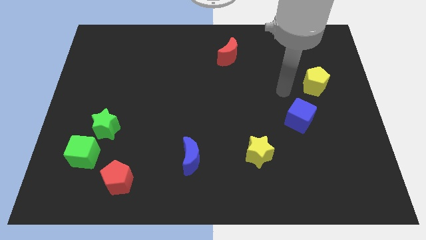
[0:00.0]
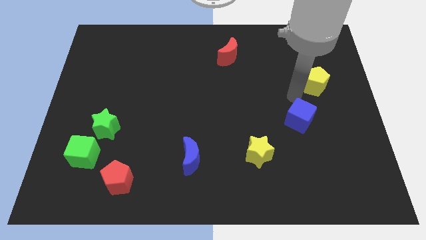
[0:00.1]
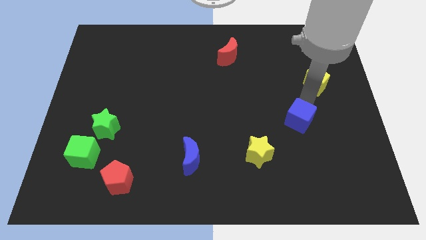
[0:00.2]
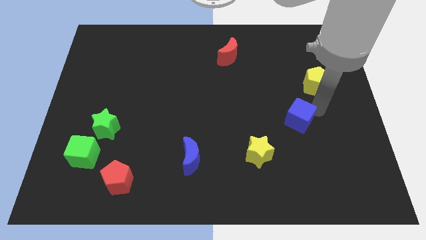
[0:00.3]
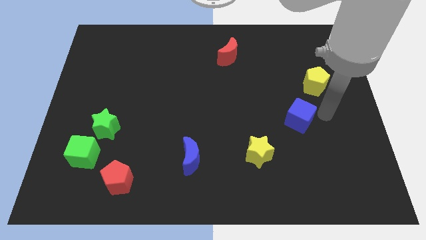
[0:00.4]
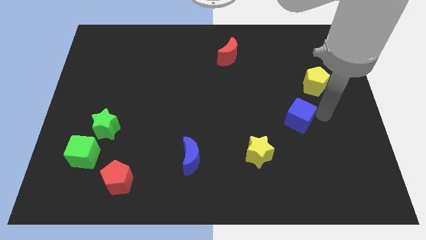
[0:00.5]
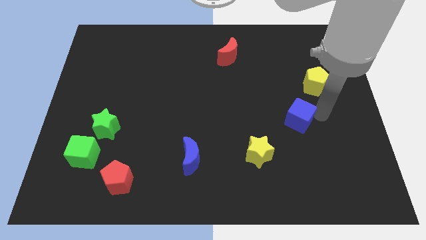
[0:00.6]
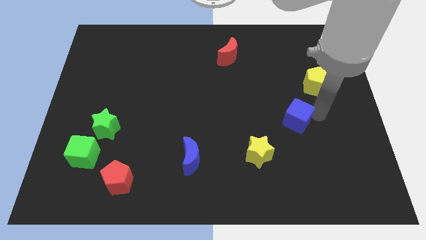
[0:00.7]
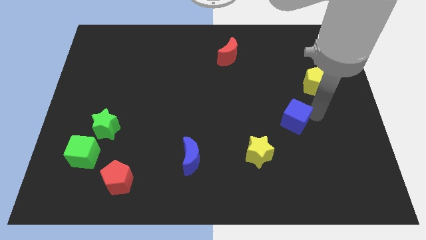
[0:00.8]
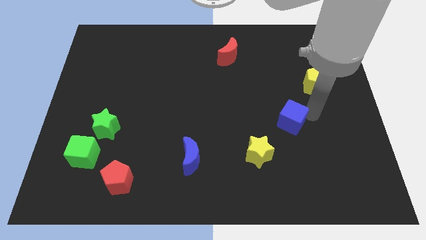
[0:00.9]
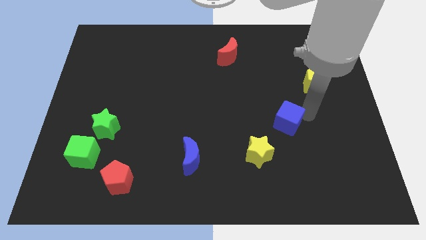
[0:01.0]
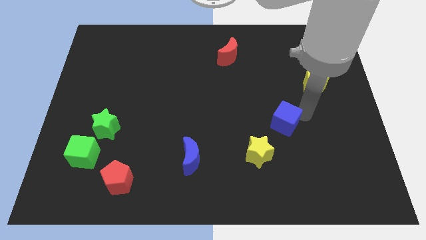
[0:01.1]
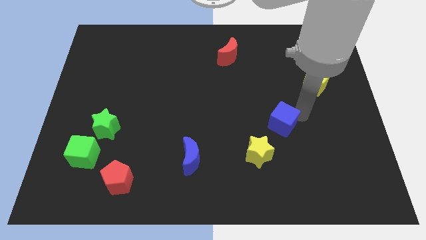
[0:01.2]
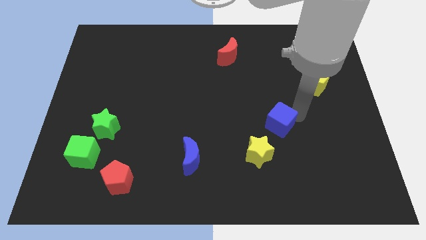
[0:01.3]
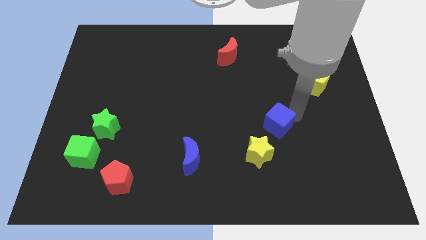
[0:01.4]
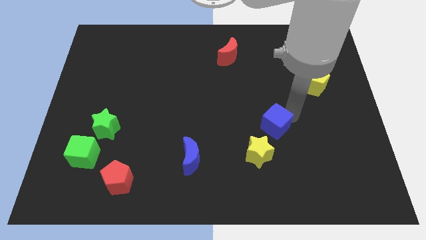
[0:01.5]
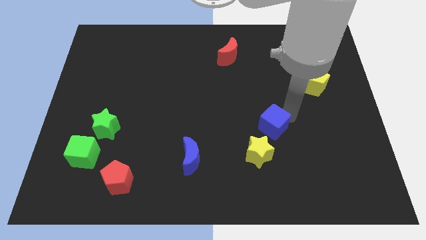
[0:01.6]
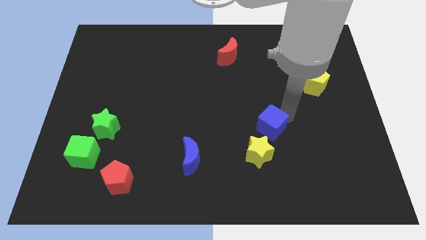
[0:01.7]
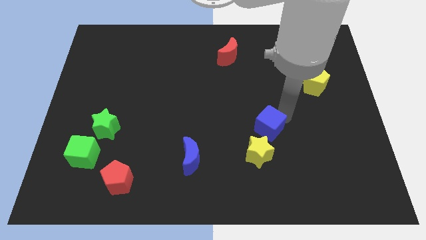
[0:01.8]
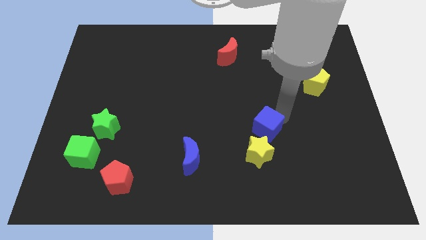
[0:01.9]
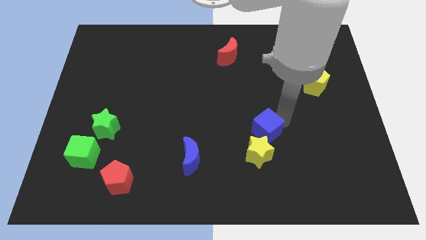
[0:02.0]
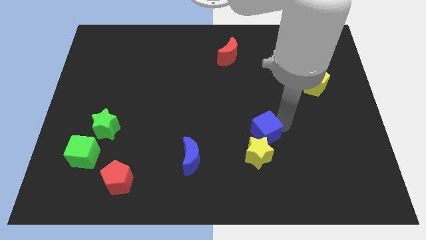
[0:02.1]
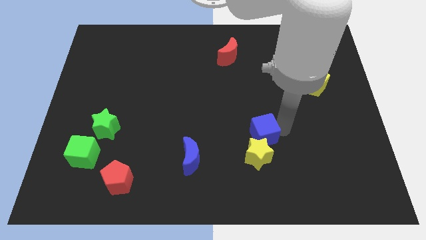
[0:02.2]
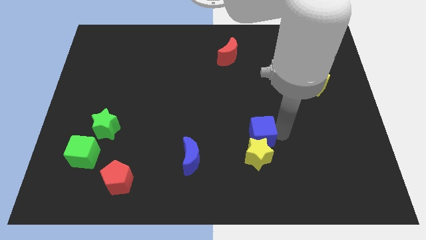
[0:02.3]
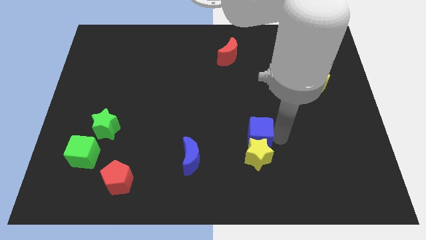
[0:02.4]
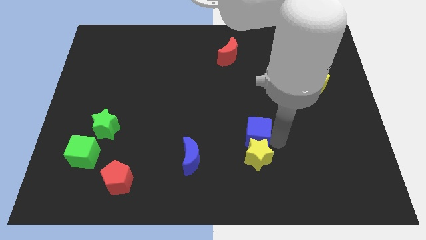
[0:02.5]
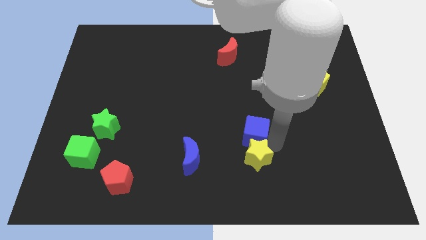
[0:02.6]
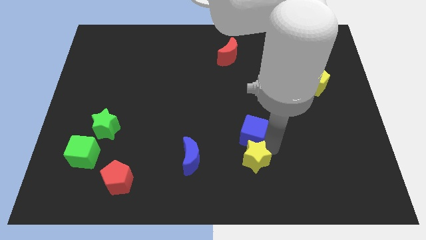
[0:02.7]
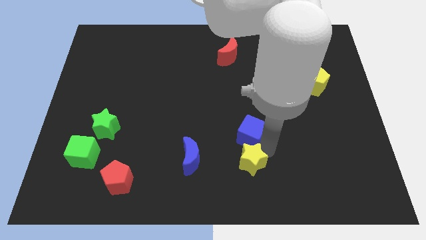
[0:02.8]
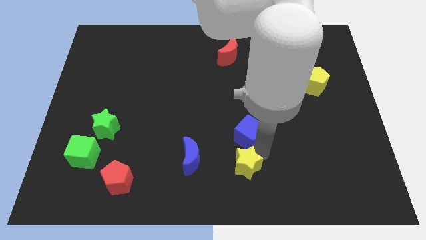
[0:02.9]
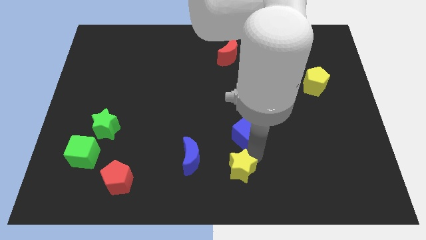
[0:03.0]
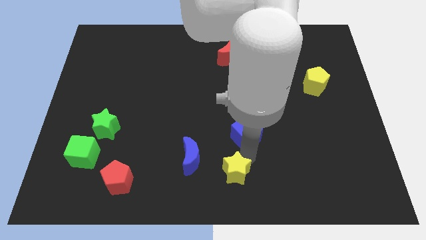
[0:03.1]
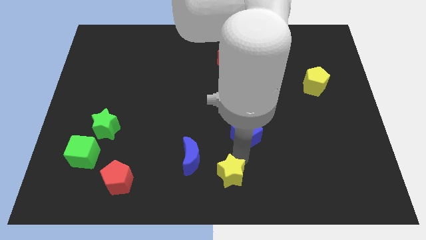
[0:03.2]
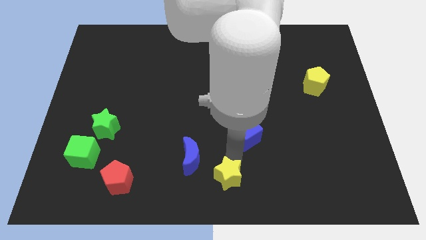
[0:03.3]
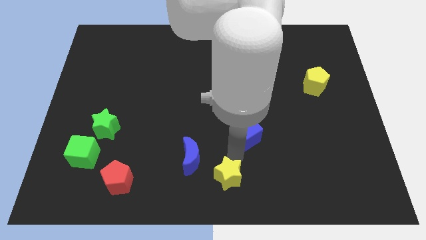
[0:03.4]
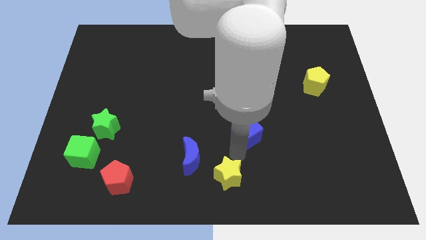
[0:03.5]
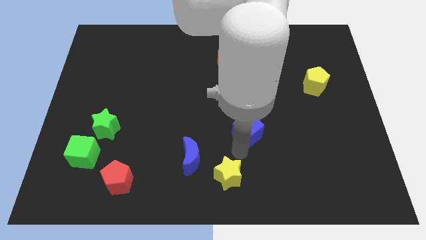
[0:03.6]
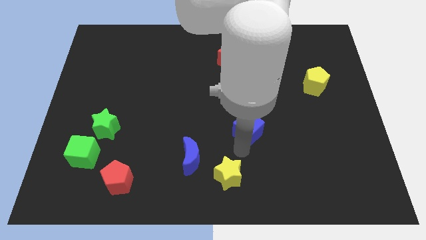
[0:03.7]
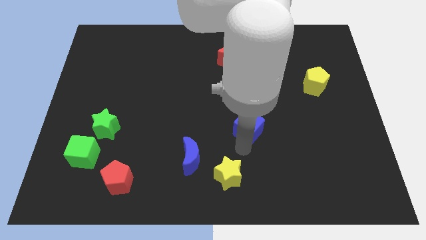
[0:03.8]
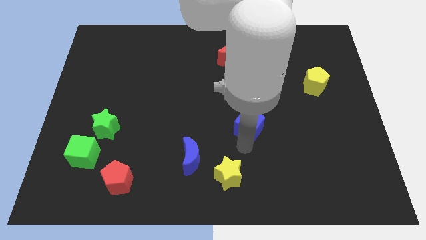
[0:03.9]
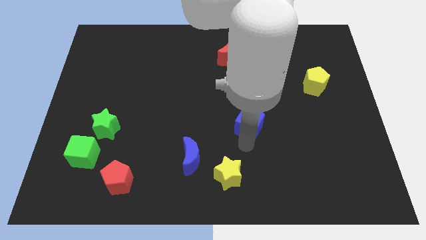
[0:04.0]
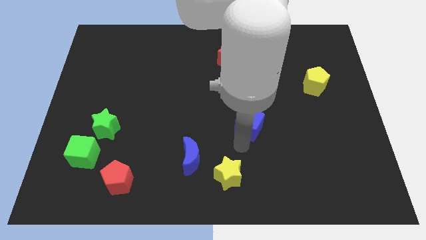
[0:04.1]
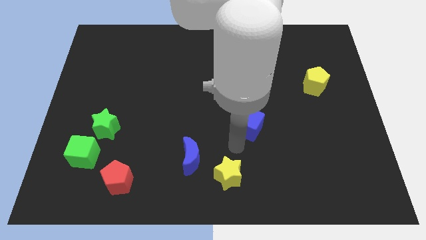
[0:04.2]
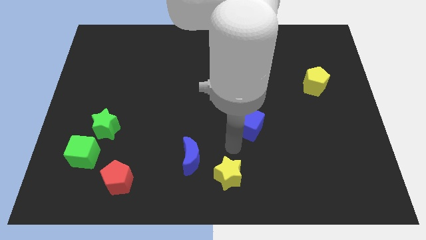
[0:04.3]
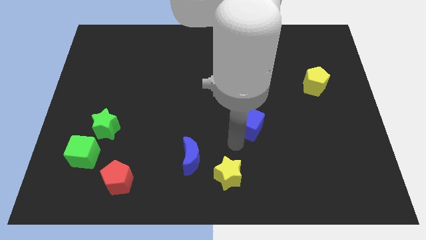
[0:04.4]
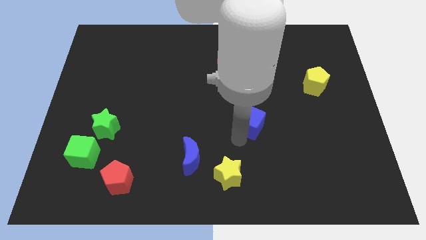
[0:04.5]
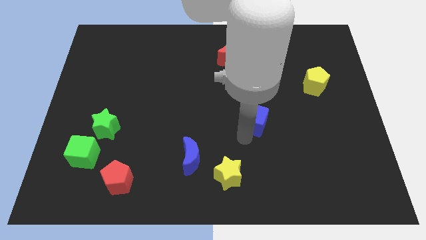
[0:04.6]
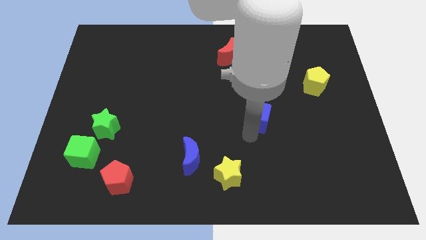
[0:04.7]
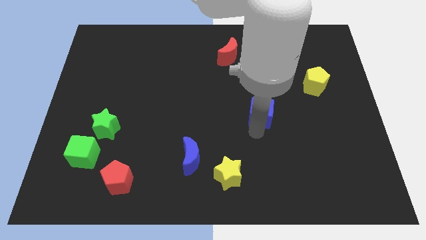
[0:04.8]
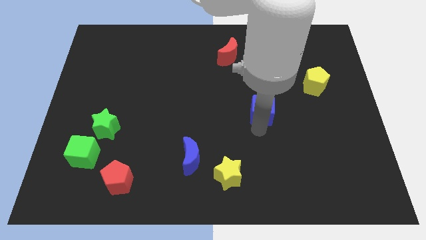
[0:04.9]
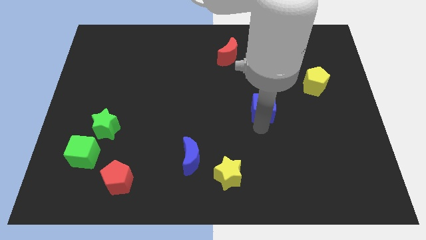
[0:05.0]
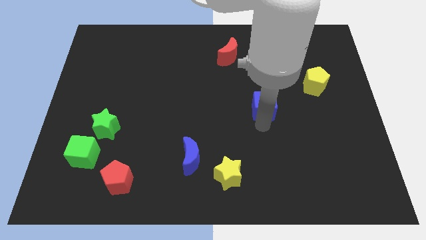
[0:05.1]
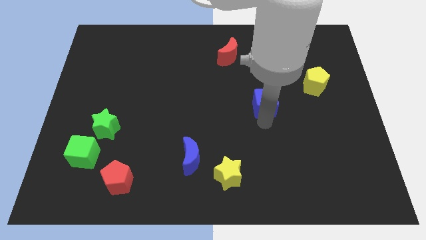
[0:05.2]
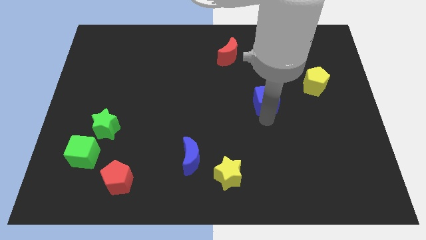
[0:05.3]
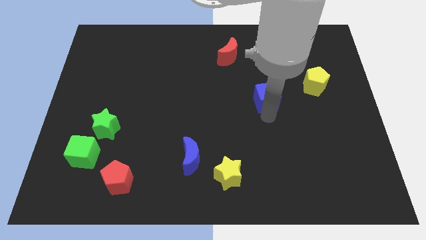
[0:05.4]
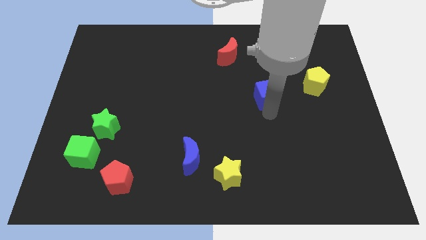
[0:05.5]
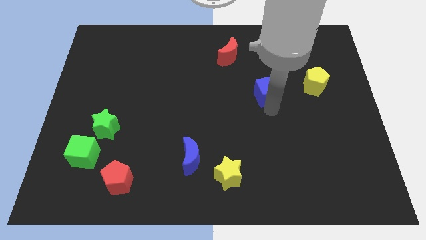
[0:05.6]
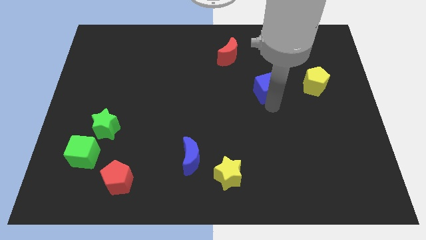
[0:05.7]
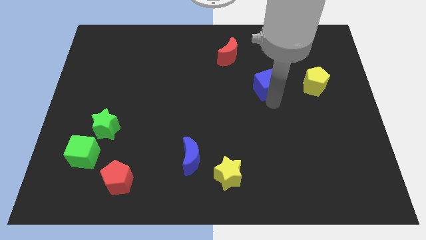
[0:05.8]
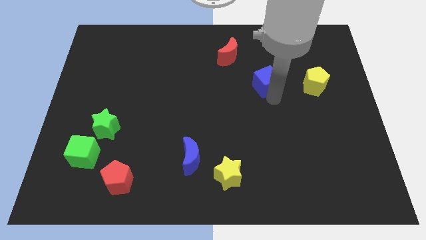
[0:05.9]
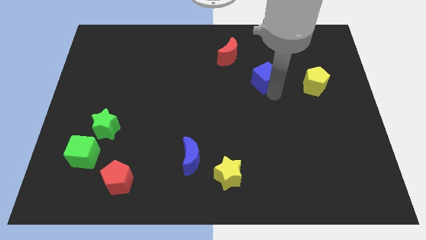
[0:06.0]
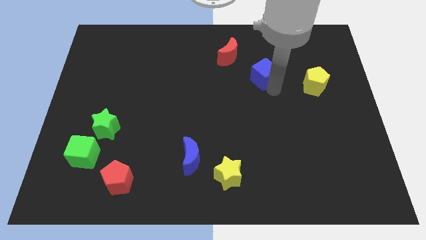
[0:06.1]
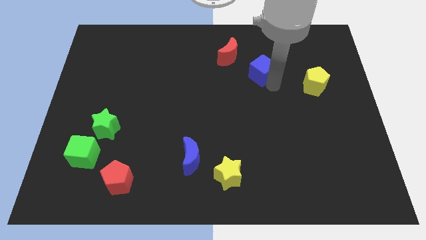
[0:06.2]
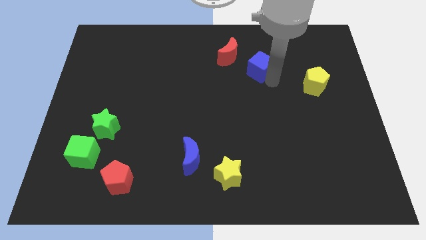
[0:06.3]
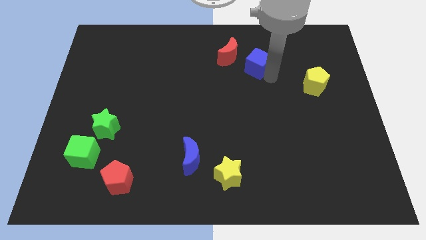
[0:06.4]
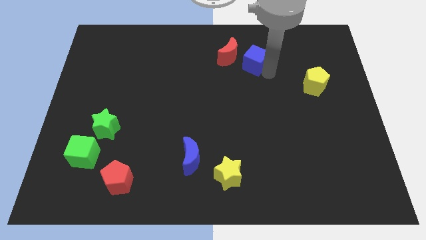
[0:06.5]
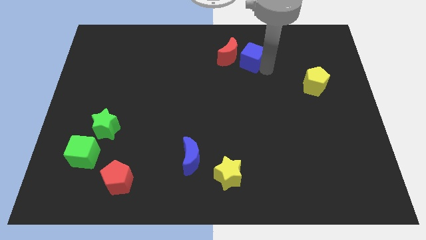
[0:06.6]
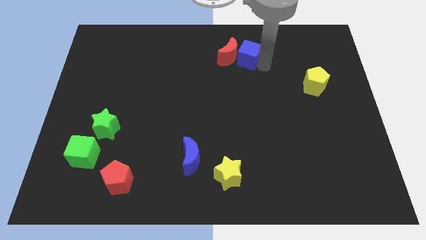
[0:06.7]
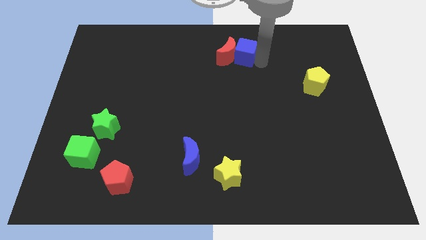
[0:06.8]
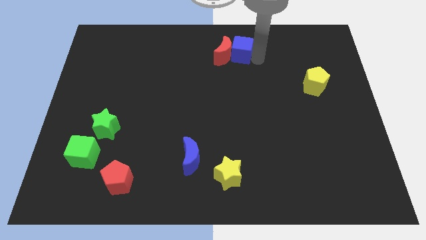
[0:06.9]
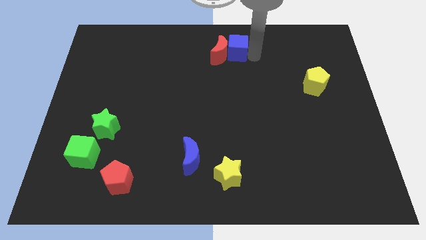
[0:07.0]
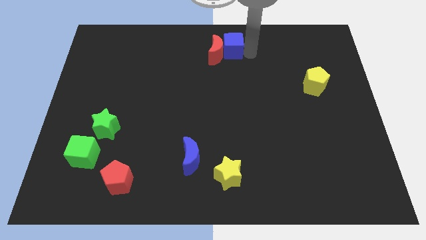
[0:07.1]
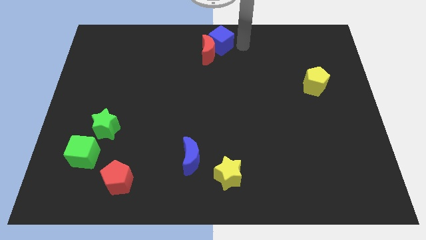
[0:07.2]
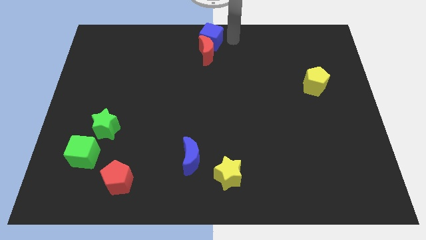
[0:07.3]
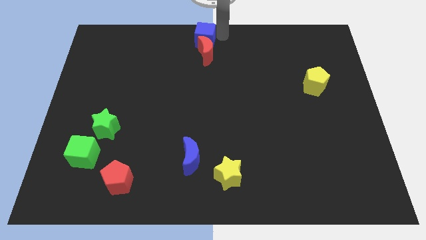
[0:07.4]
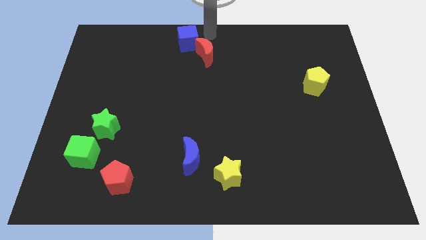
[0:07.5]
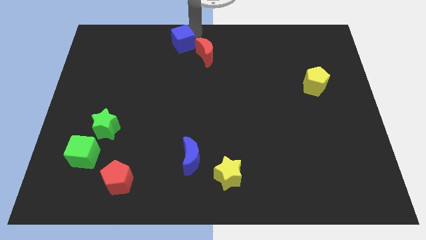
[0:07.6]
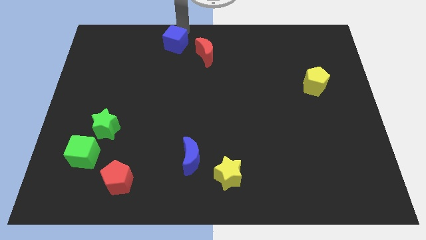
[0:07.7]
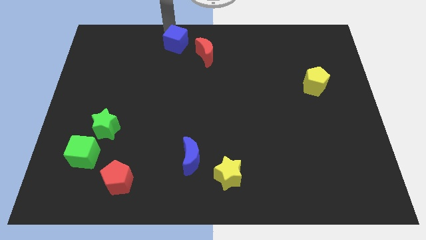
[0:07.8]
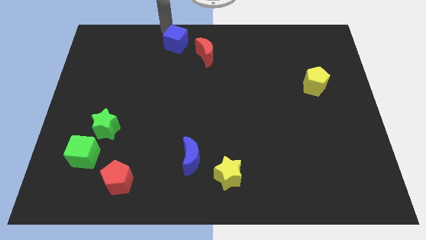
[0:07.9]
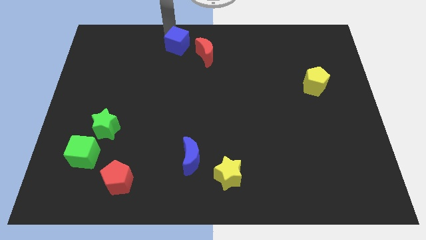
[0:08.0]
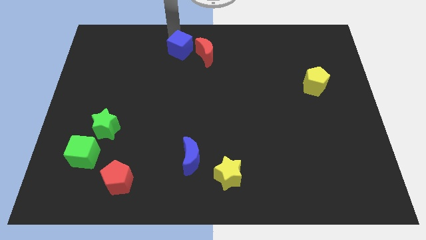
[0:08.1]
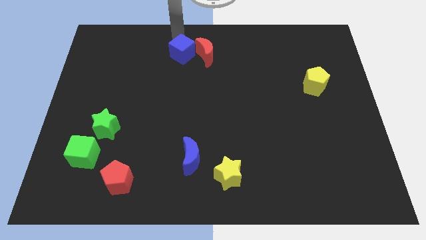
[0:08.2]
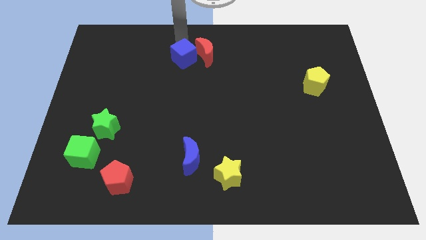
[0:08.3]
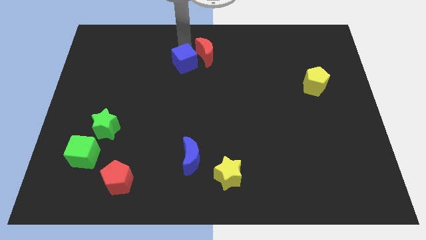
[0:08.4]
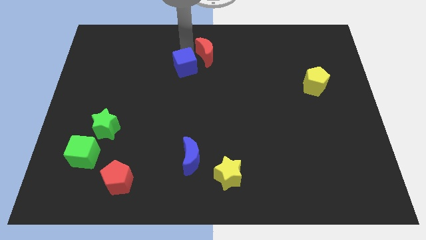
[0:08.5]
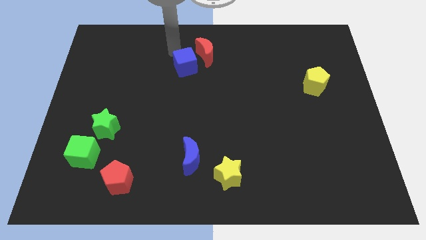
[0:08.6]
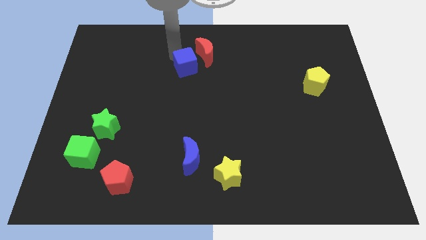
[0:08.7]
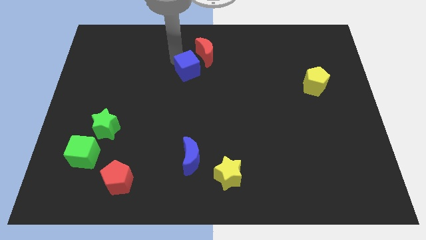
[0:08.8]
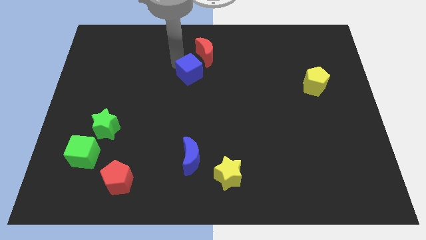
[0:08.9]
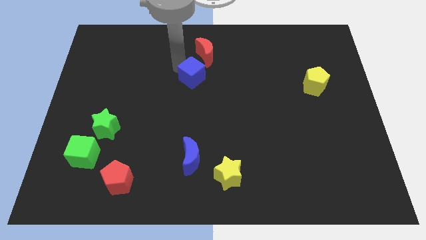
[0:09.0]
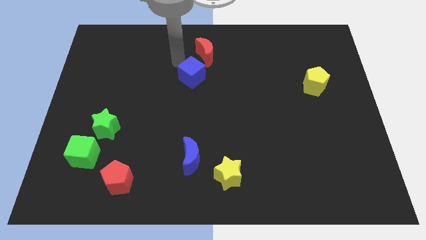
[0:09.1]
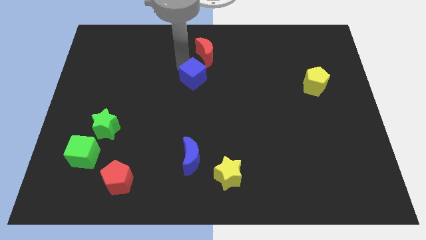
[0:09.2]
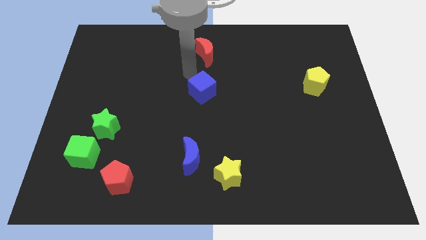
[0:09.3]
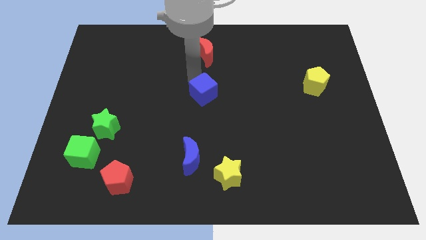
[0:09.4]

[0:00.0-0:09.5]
slide the blue cube left
